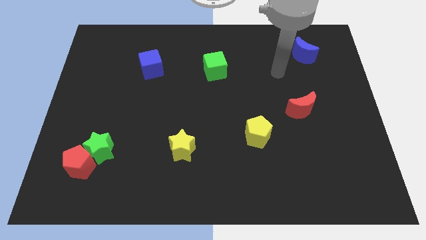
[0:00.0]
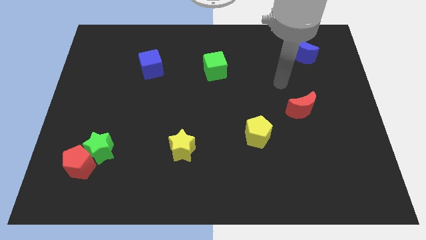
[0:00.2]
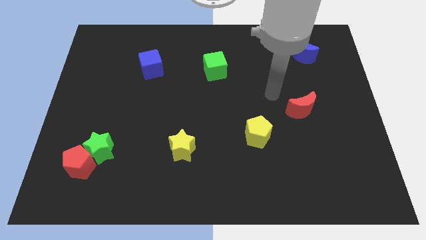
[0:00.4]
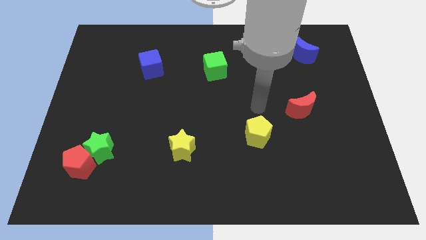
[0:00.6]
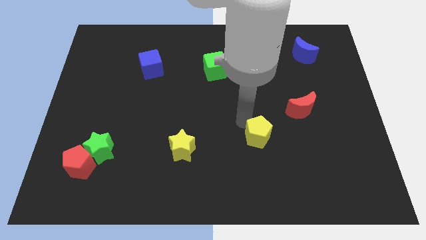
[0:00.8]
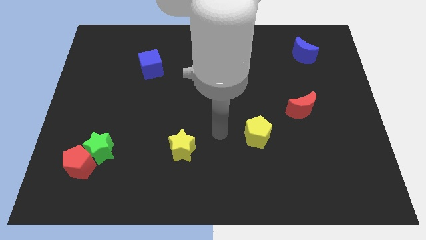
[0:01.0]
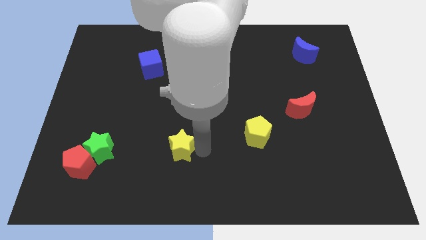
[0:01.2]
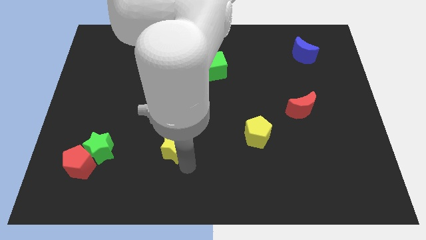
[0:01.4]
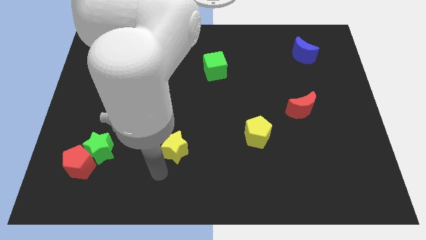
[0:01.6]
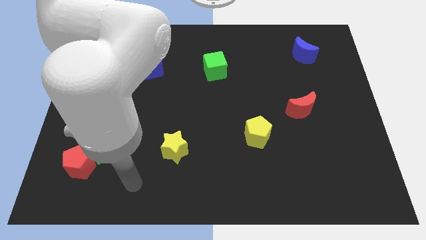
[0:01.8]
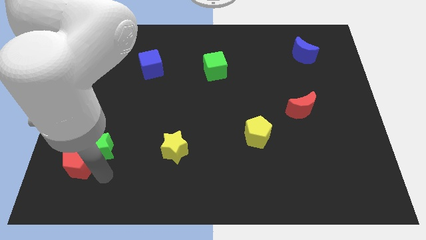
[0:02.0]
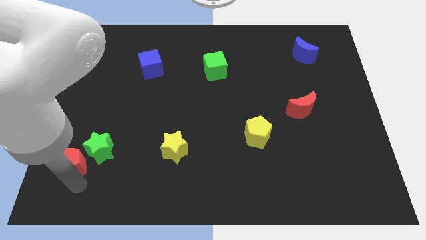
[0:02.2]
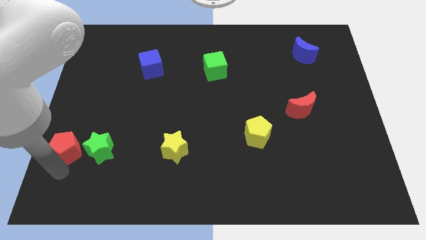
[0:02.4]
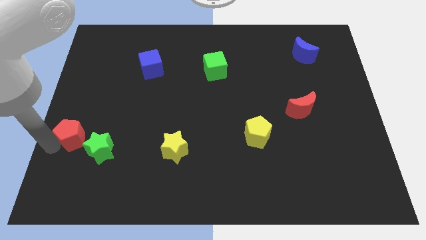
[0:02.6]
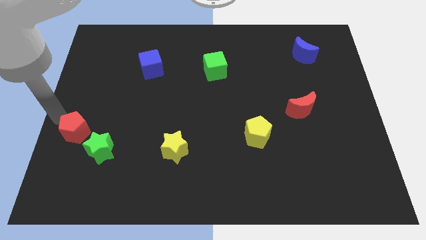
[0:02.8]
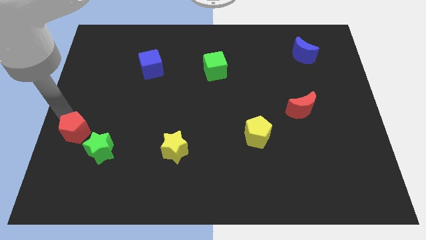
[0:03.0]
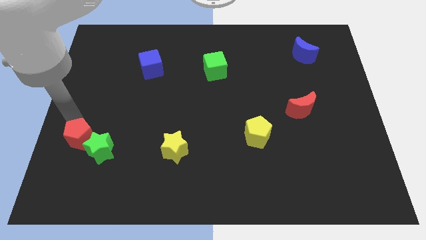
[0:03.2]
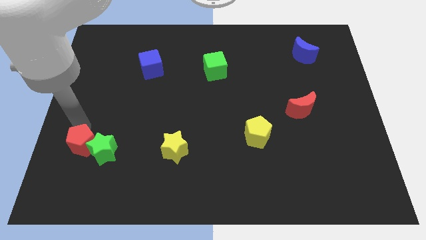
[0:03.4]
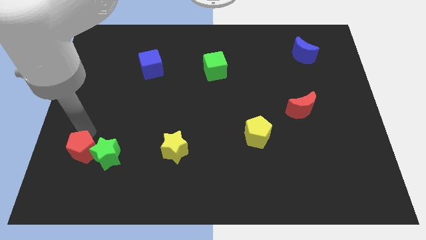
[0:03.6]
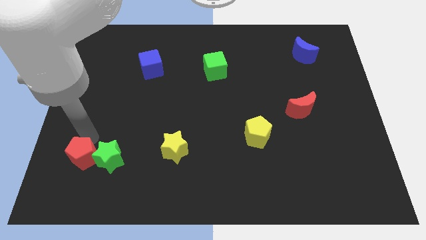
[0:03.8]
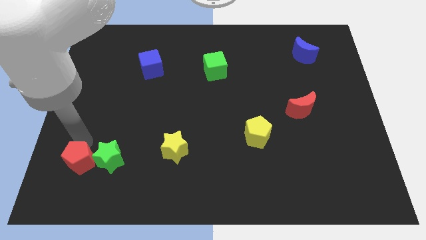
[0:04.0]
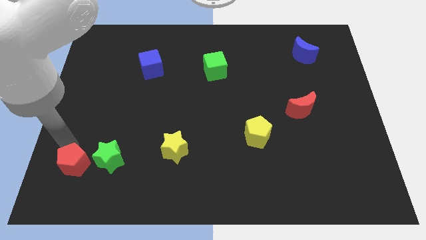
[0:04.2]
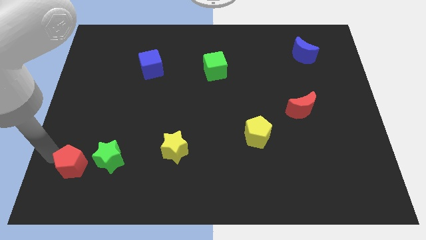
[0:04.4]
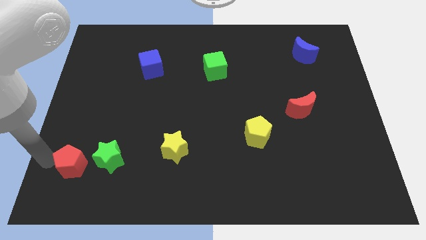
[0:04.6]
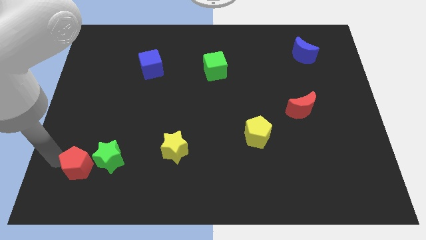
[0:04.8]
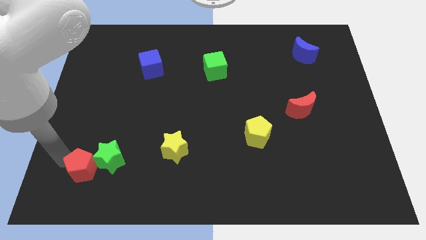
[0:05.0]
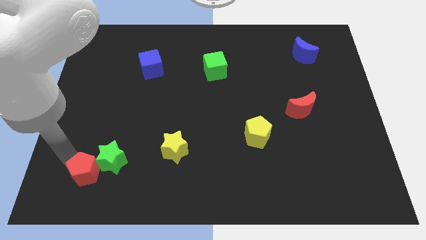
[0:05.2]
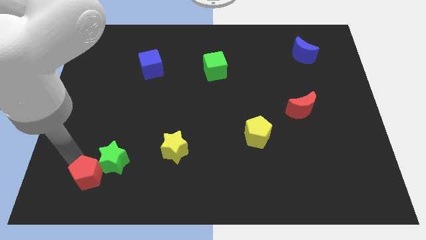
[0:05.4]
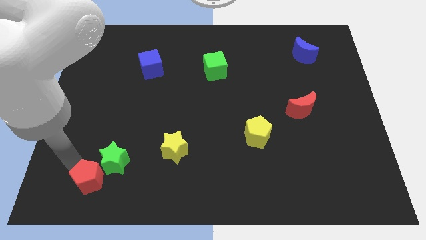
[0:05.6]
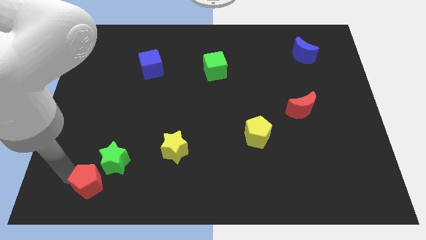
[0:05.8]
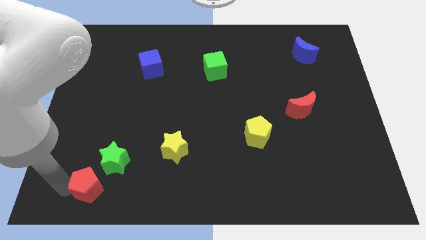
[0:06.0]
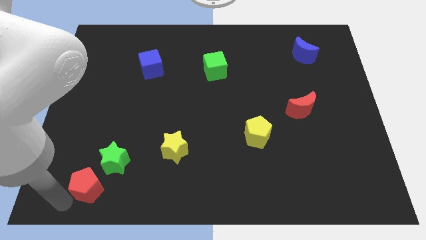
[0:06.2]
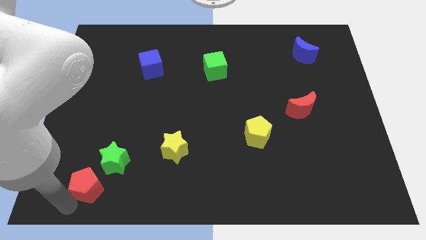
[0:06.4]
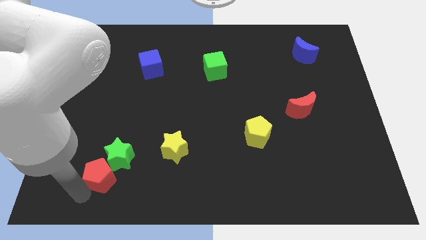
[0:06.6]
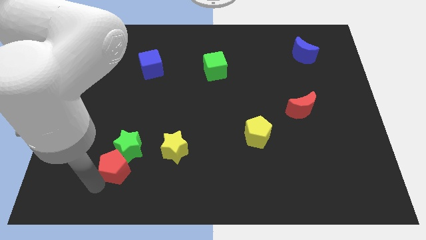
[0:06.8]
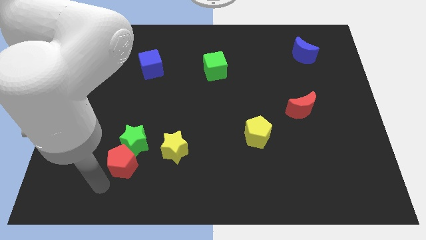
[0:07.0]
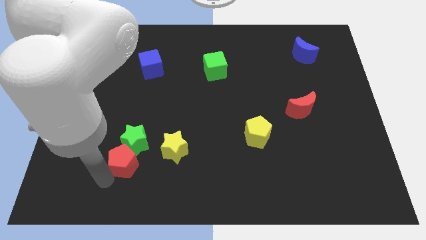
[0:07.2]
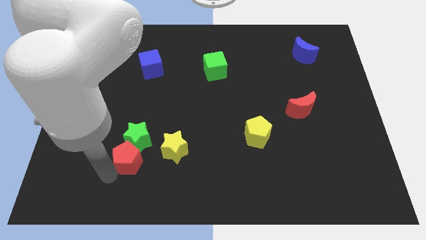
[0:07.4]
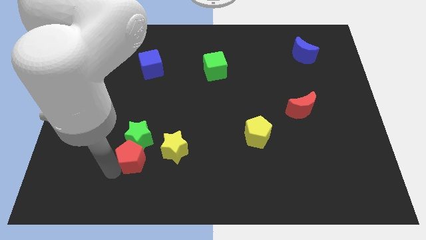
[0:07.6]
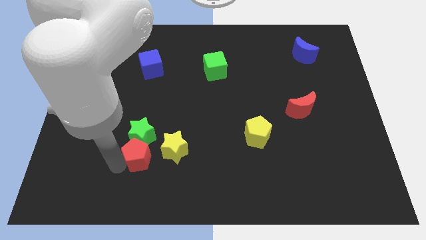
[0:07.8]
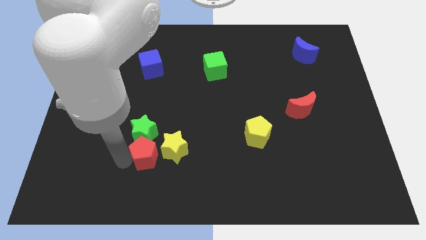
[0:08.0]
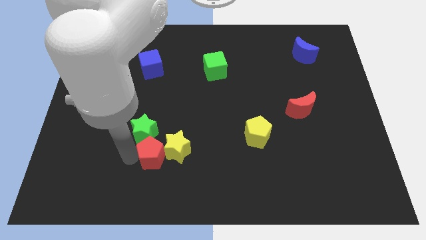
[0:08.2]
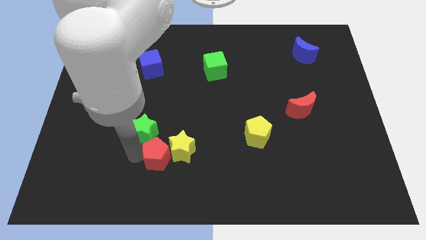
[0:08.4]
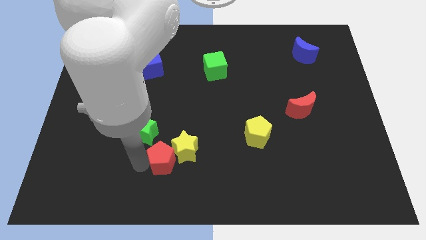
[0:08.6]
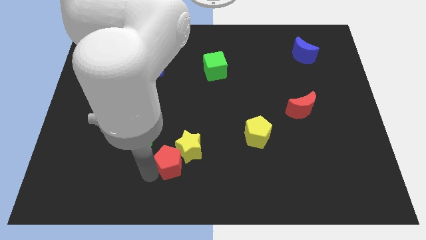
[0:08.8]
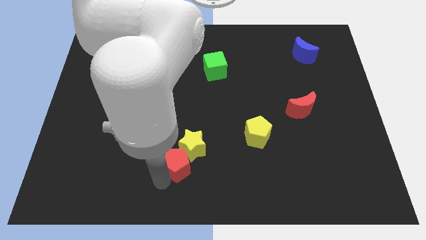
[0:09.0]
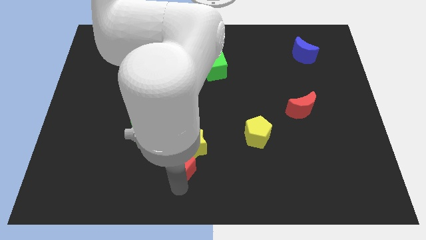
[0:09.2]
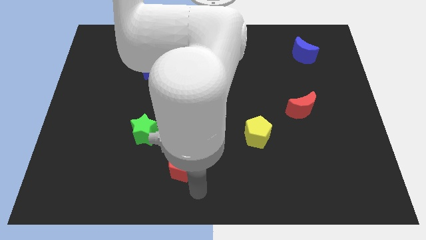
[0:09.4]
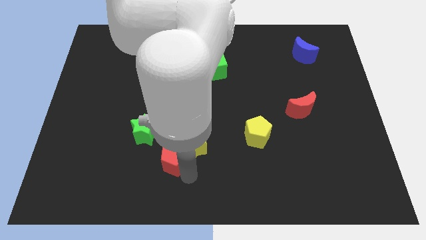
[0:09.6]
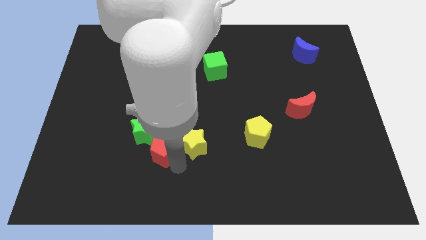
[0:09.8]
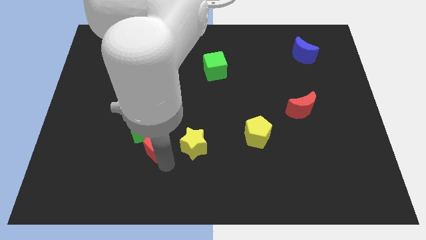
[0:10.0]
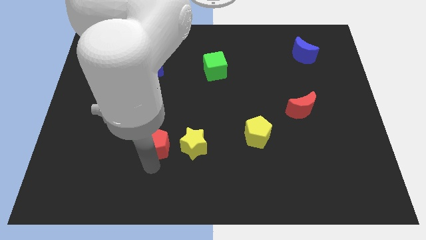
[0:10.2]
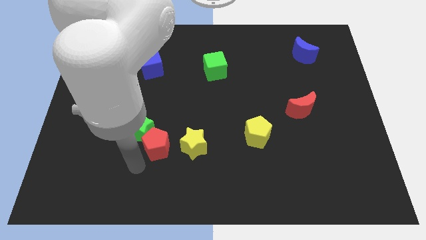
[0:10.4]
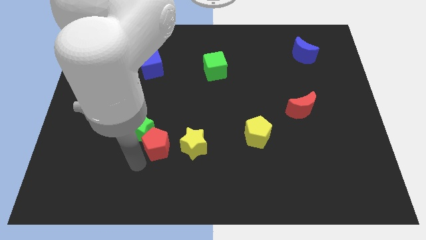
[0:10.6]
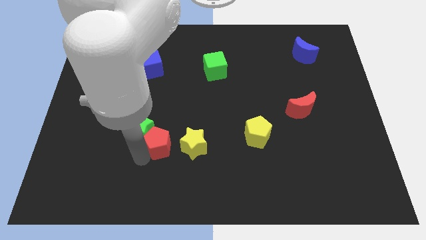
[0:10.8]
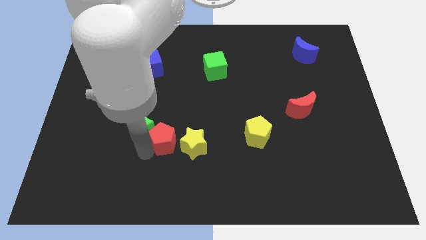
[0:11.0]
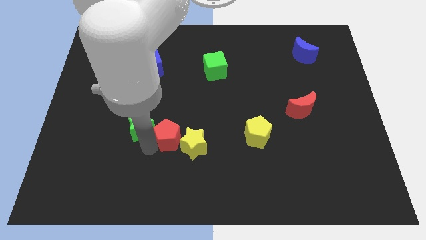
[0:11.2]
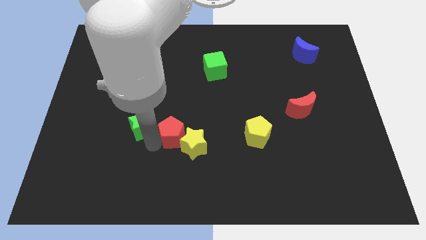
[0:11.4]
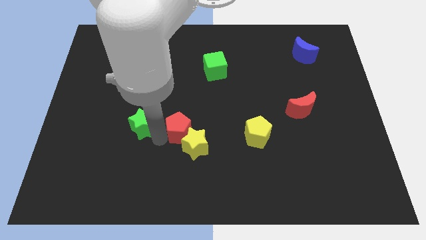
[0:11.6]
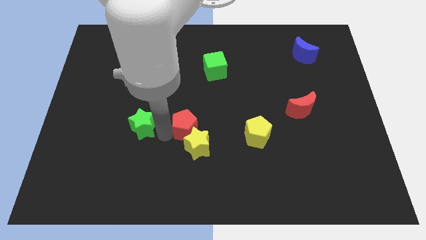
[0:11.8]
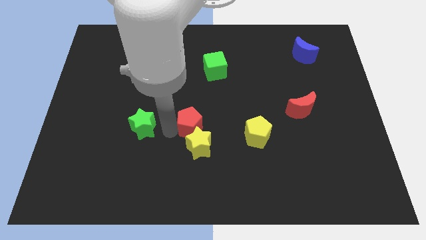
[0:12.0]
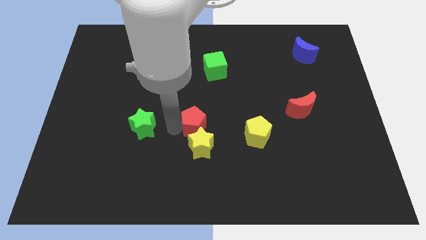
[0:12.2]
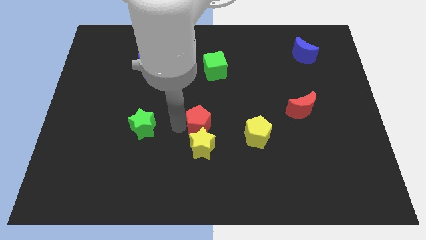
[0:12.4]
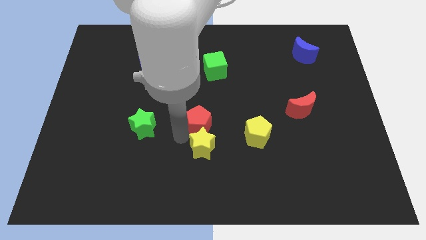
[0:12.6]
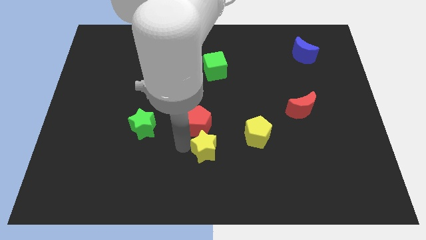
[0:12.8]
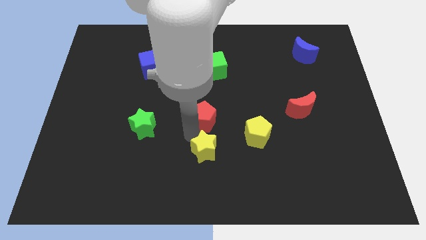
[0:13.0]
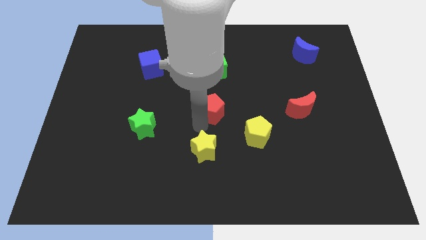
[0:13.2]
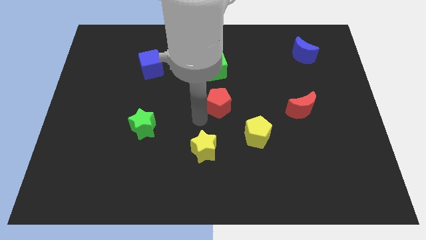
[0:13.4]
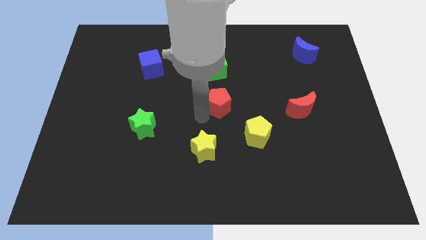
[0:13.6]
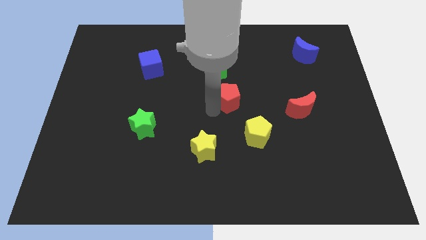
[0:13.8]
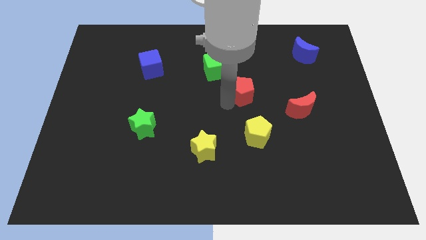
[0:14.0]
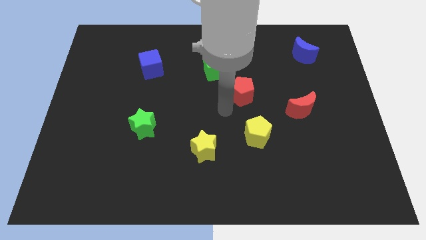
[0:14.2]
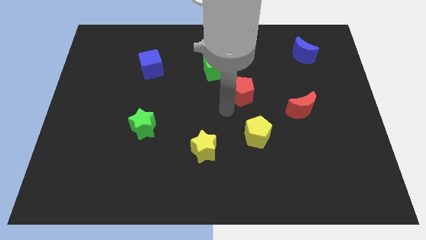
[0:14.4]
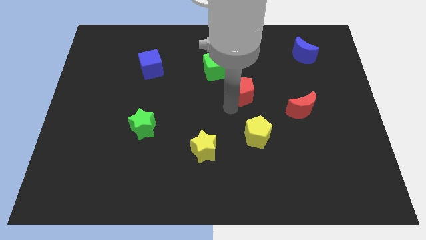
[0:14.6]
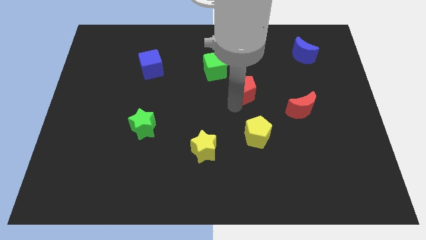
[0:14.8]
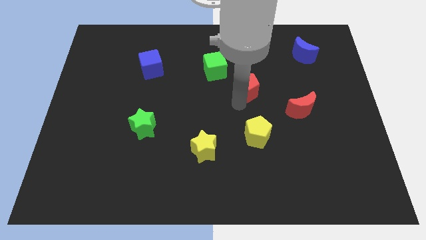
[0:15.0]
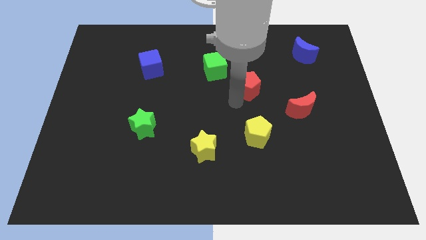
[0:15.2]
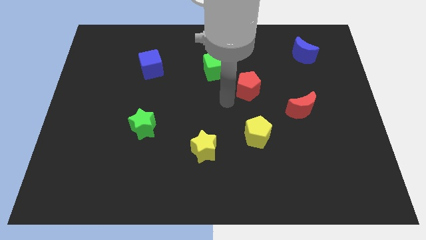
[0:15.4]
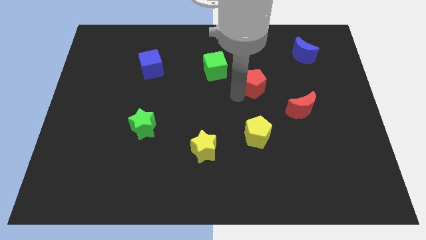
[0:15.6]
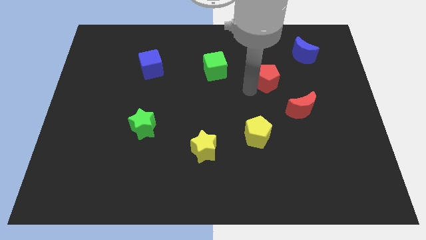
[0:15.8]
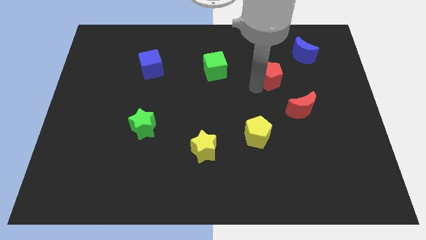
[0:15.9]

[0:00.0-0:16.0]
push the red pentagon to the bottom left side of the blue moon
